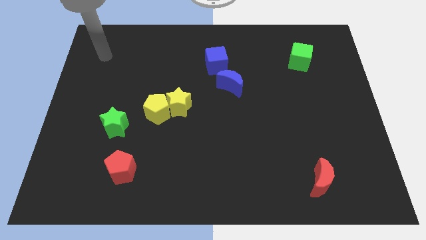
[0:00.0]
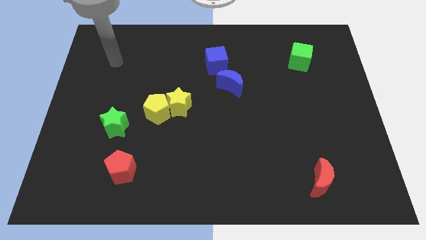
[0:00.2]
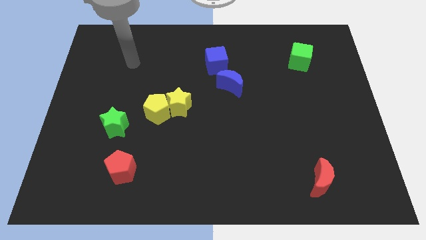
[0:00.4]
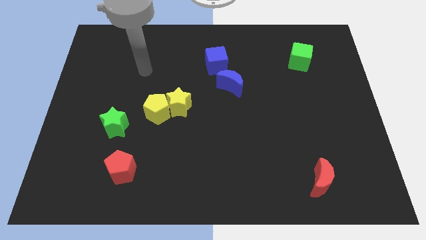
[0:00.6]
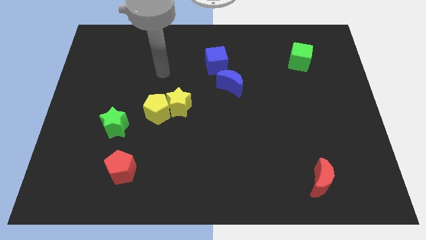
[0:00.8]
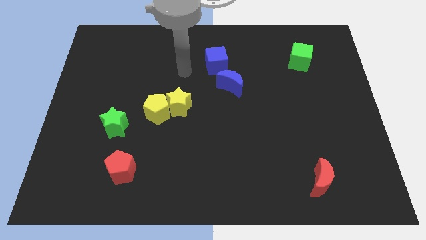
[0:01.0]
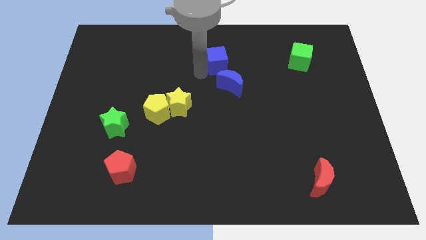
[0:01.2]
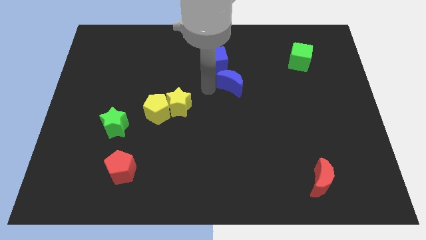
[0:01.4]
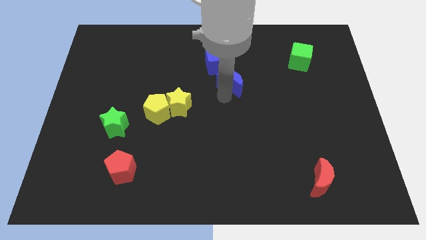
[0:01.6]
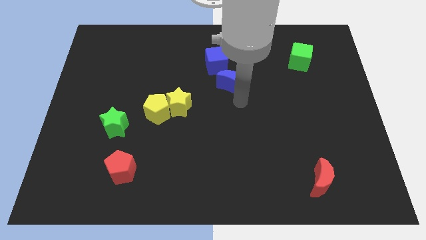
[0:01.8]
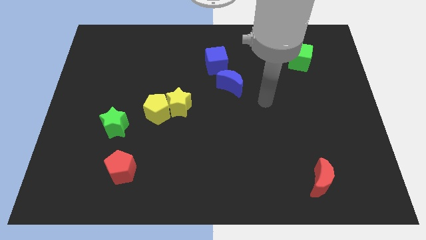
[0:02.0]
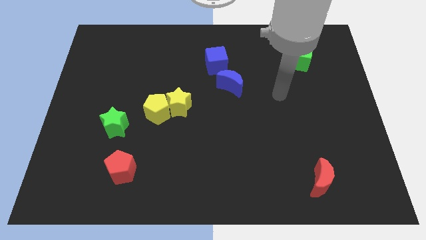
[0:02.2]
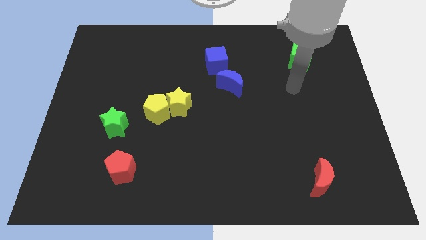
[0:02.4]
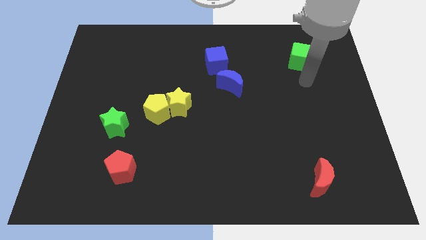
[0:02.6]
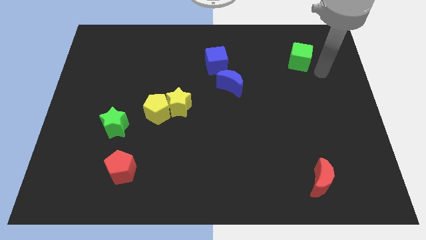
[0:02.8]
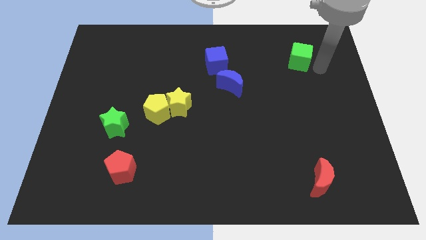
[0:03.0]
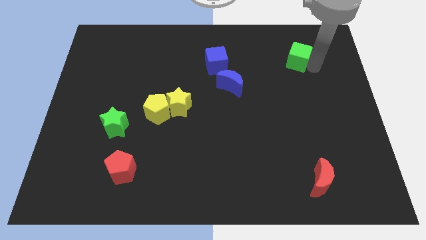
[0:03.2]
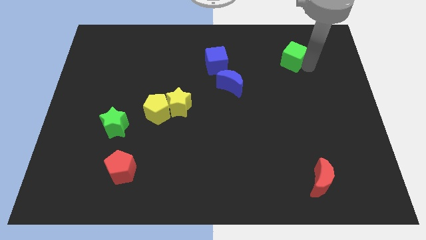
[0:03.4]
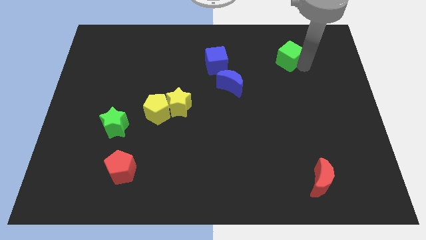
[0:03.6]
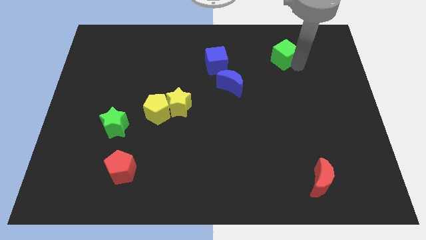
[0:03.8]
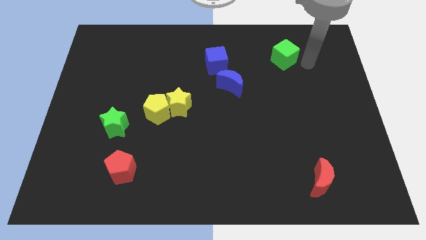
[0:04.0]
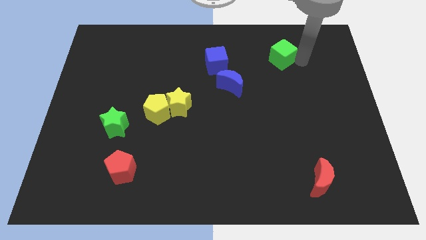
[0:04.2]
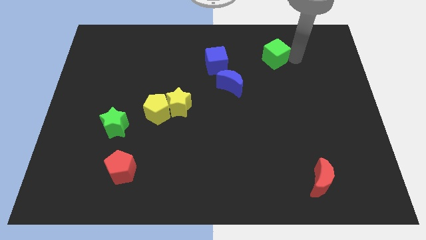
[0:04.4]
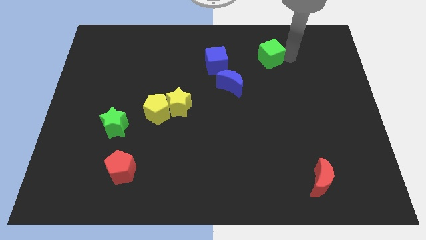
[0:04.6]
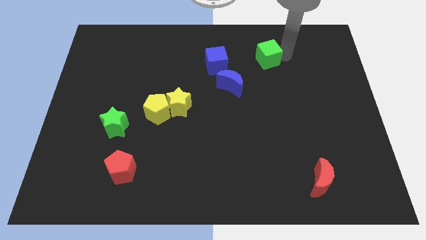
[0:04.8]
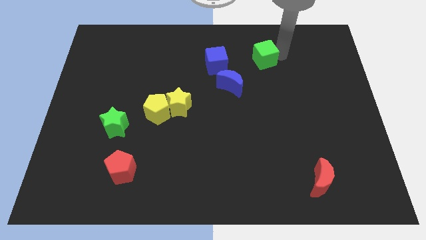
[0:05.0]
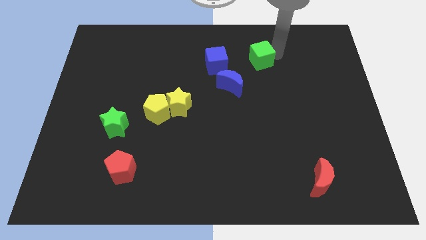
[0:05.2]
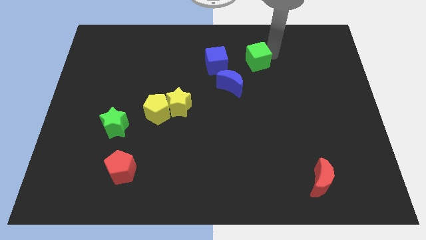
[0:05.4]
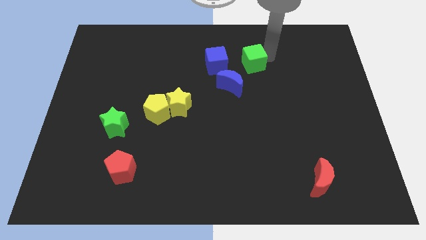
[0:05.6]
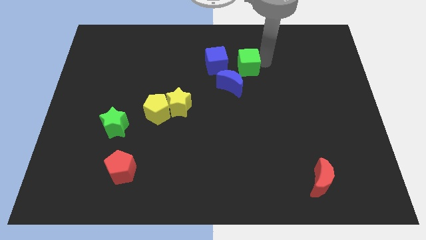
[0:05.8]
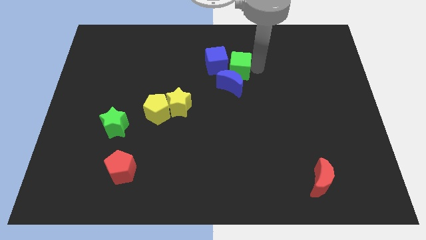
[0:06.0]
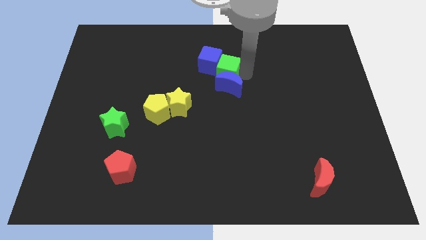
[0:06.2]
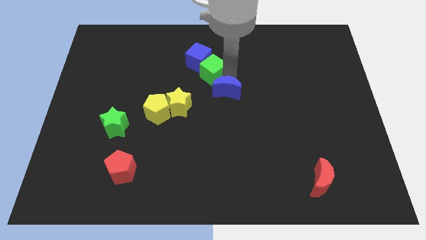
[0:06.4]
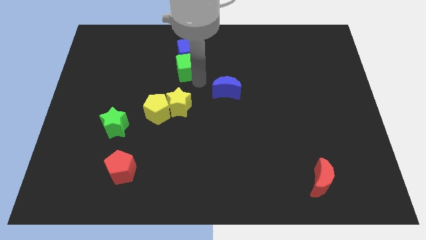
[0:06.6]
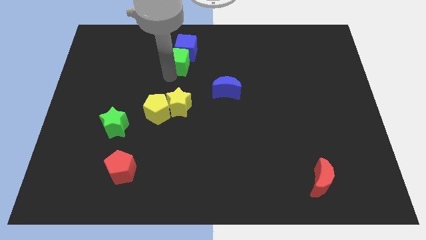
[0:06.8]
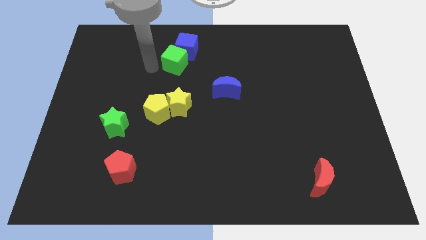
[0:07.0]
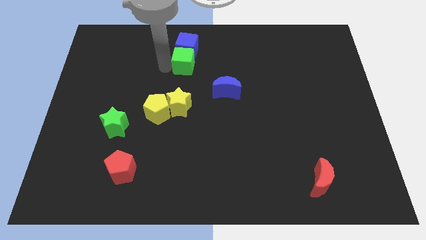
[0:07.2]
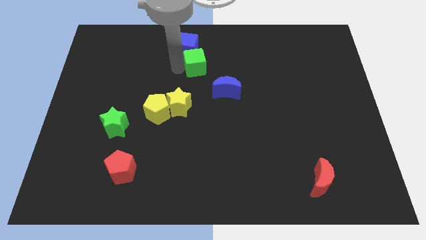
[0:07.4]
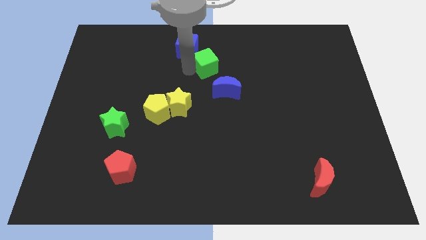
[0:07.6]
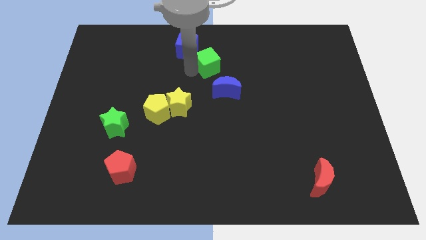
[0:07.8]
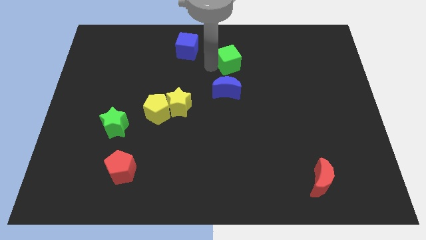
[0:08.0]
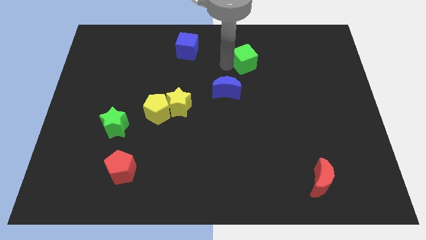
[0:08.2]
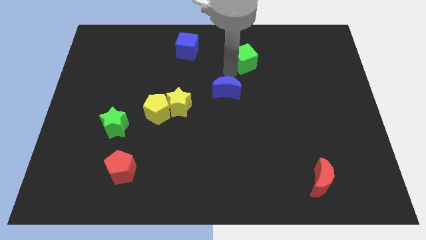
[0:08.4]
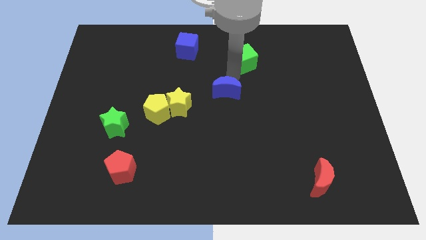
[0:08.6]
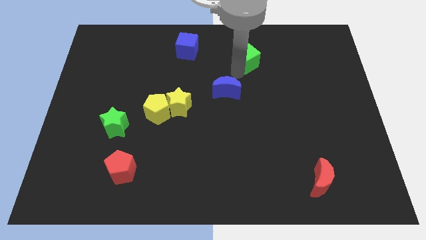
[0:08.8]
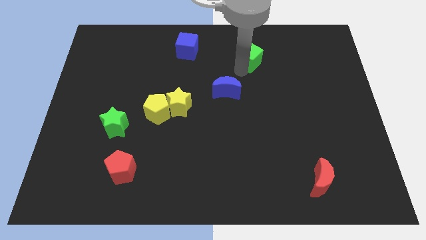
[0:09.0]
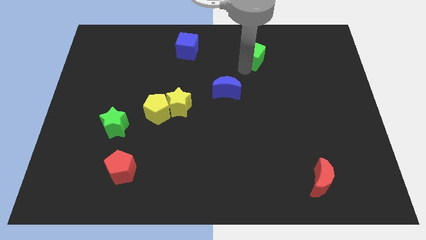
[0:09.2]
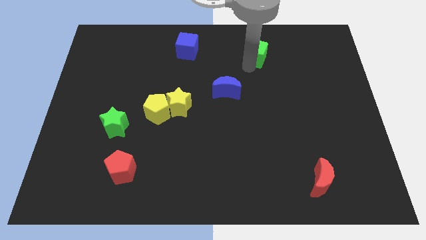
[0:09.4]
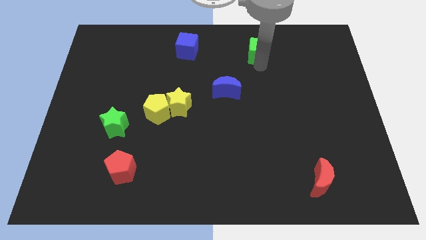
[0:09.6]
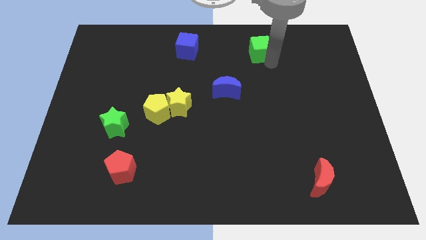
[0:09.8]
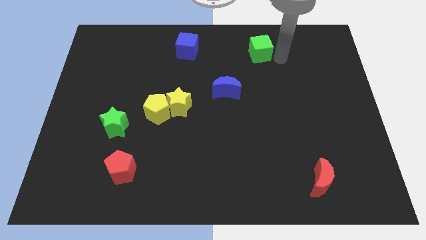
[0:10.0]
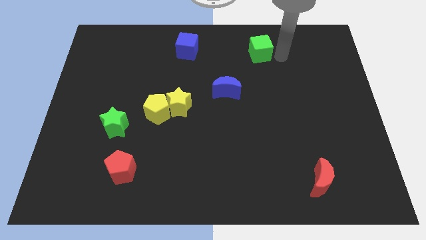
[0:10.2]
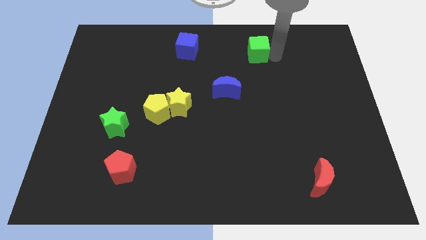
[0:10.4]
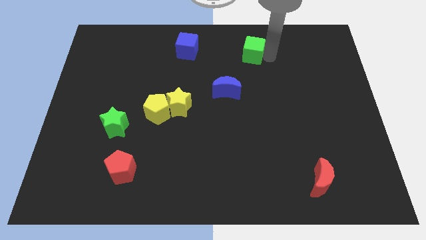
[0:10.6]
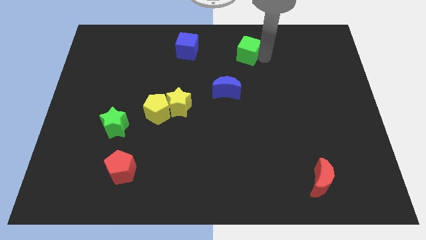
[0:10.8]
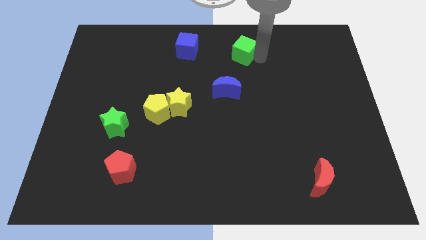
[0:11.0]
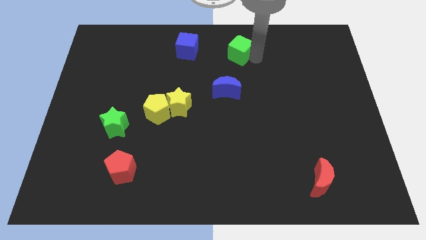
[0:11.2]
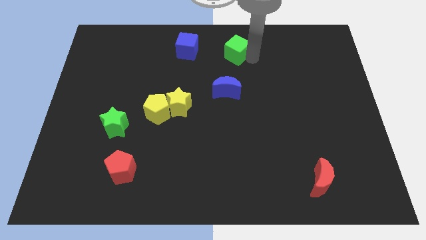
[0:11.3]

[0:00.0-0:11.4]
move the green cube to the top side

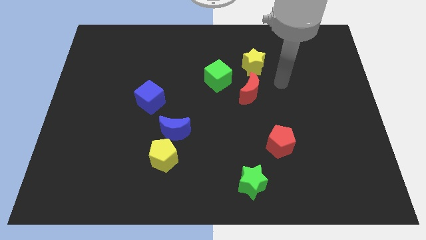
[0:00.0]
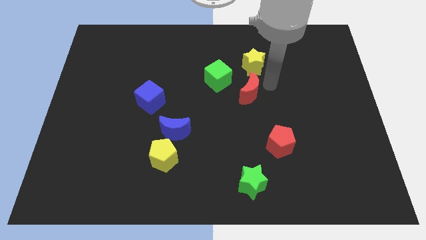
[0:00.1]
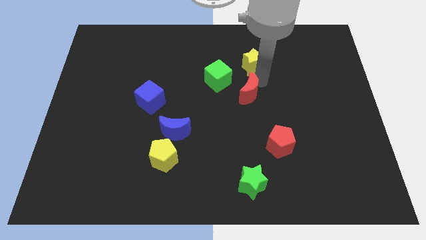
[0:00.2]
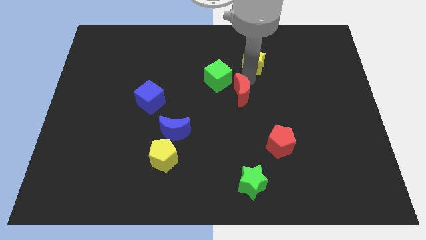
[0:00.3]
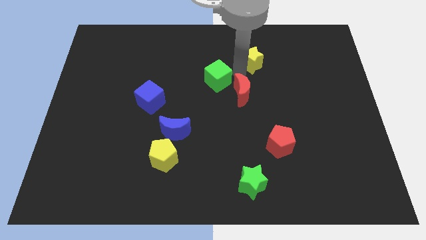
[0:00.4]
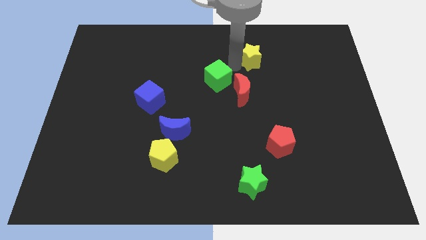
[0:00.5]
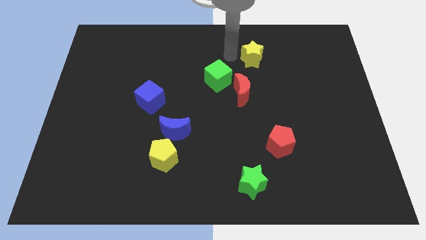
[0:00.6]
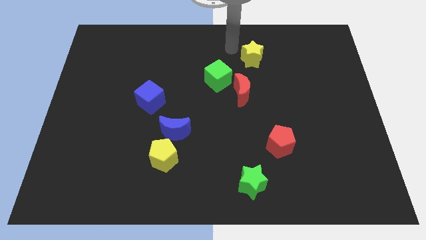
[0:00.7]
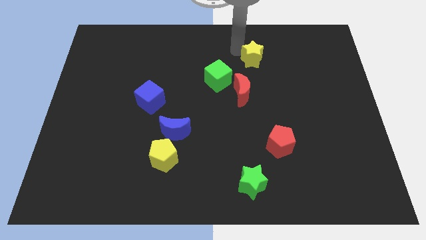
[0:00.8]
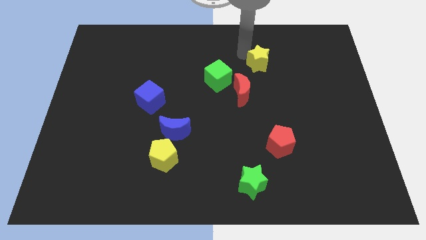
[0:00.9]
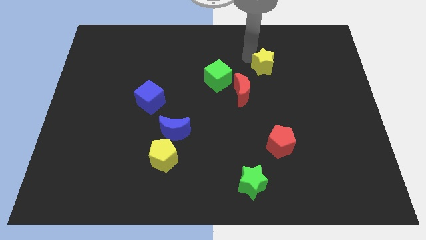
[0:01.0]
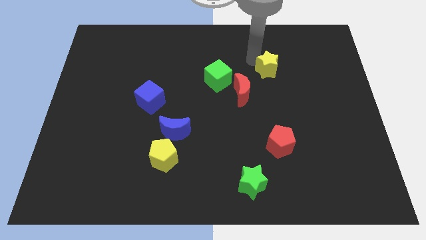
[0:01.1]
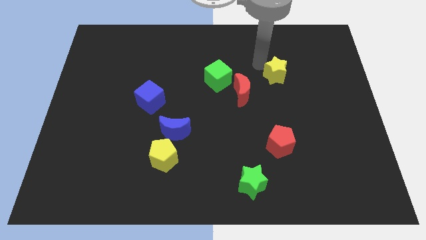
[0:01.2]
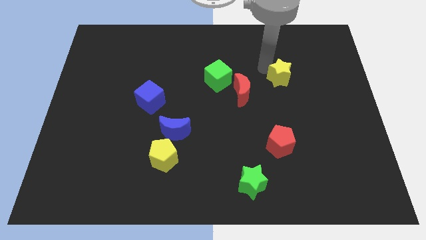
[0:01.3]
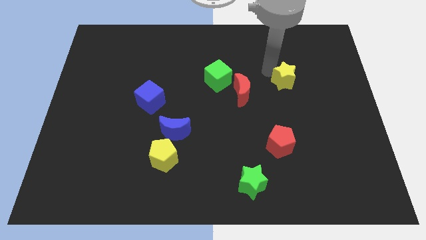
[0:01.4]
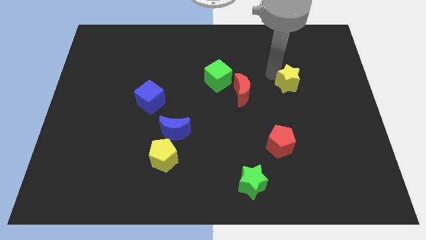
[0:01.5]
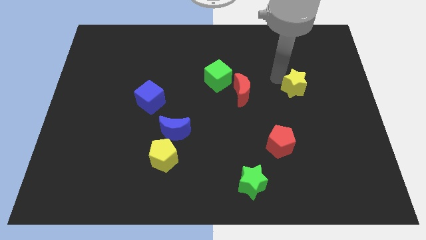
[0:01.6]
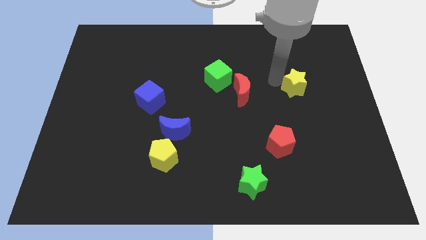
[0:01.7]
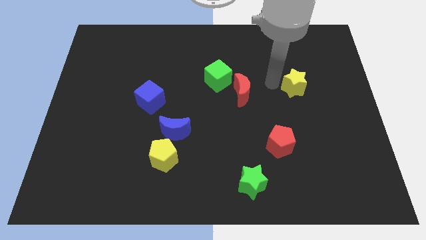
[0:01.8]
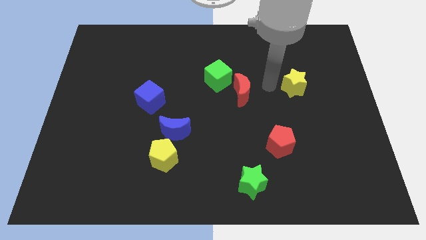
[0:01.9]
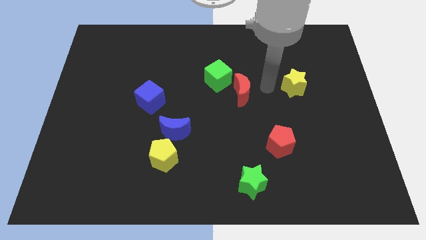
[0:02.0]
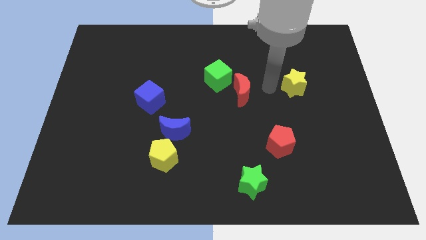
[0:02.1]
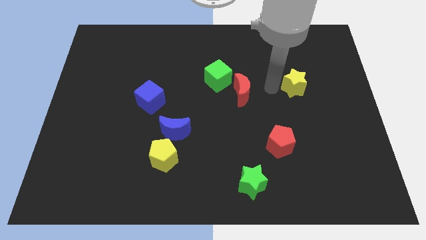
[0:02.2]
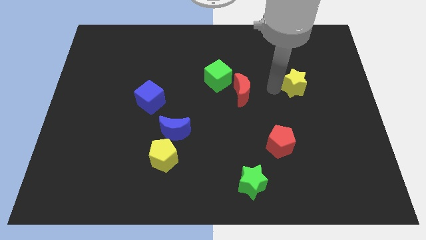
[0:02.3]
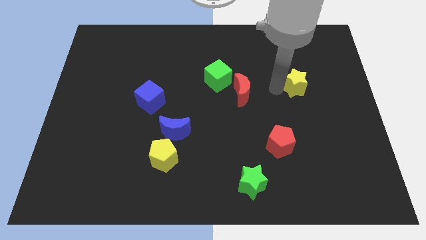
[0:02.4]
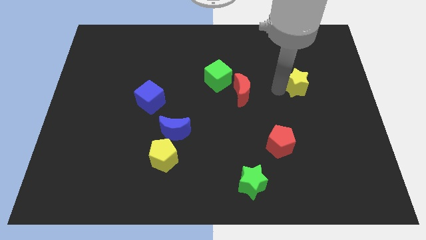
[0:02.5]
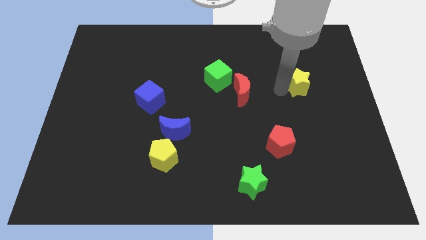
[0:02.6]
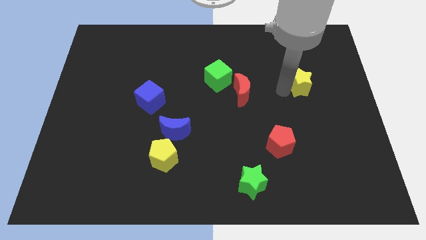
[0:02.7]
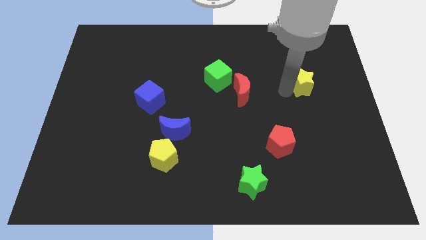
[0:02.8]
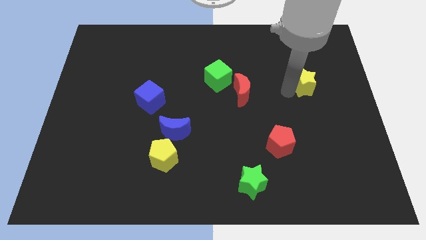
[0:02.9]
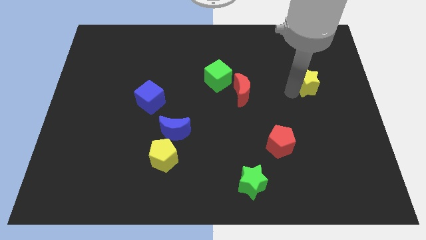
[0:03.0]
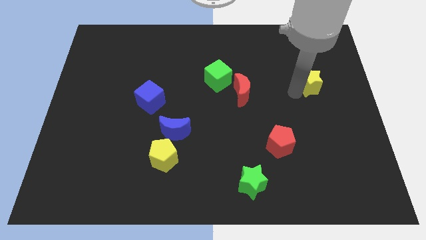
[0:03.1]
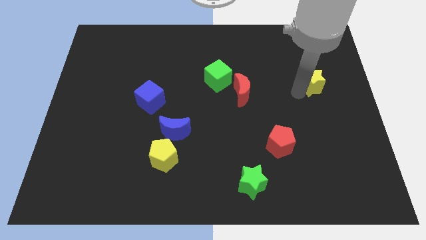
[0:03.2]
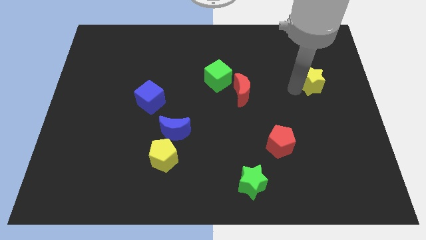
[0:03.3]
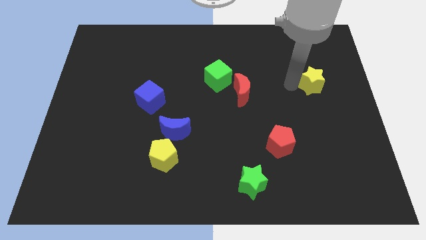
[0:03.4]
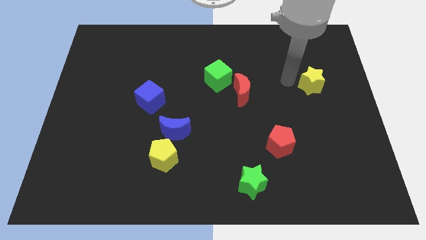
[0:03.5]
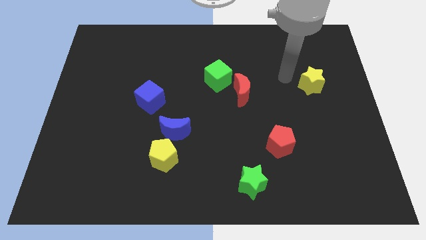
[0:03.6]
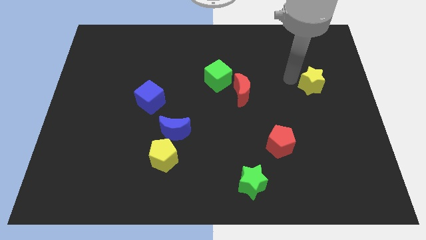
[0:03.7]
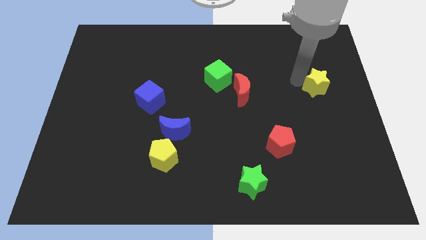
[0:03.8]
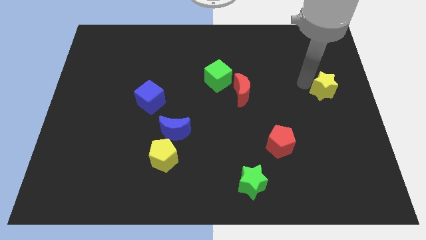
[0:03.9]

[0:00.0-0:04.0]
push the yellow star to the center right
